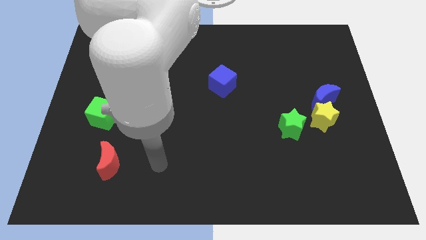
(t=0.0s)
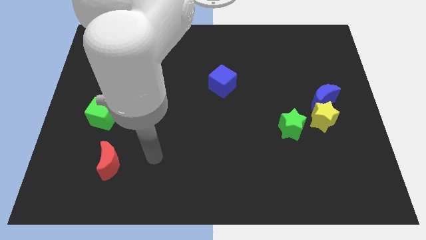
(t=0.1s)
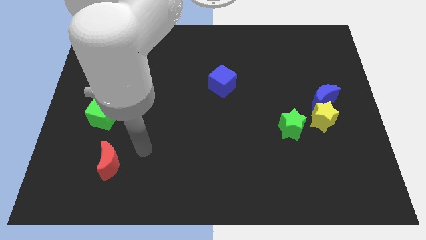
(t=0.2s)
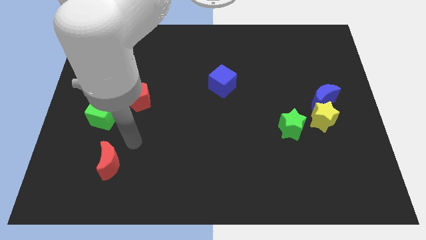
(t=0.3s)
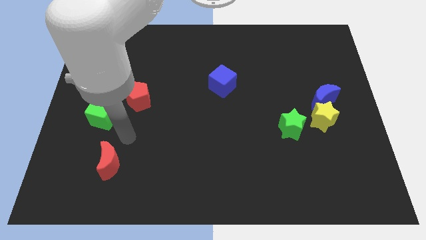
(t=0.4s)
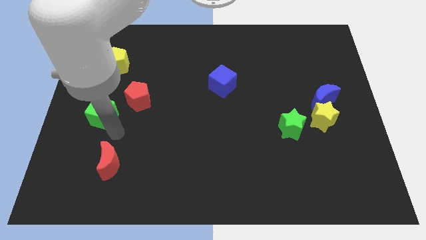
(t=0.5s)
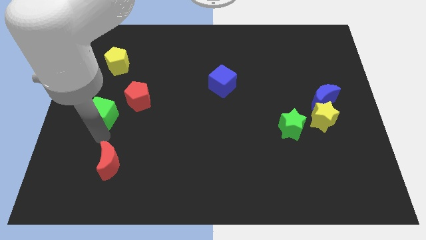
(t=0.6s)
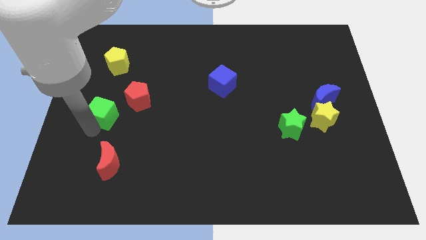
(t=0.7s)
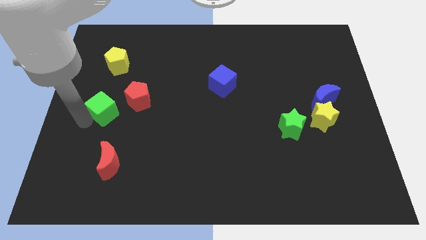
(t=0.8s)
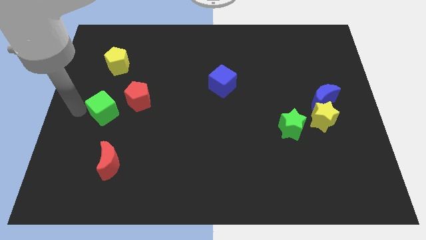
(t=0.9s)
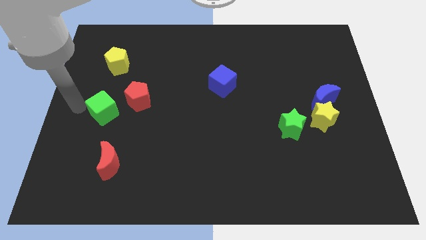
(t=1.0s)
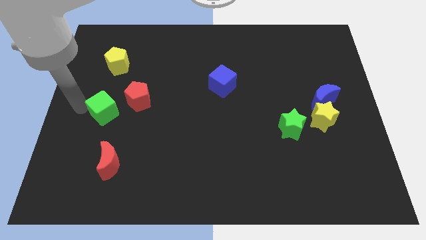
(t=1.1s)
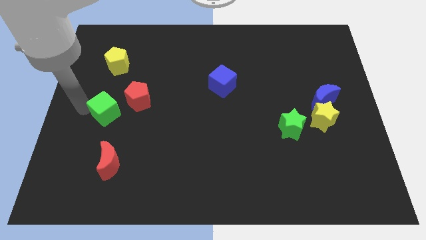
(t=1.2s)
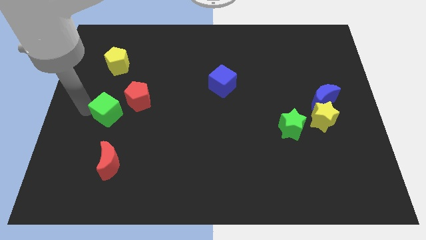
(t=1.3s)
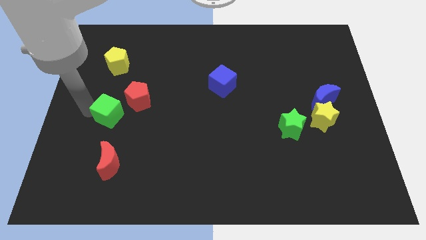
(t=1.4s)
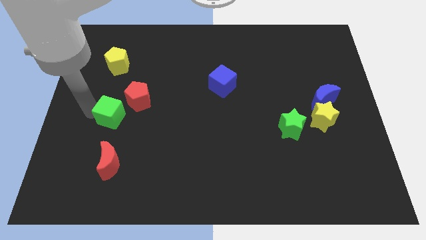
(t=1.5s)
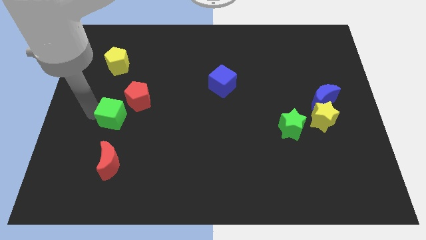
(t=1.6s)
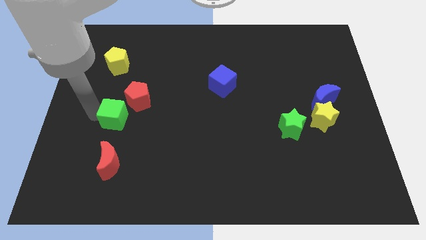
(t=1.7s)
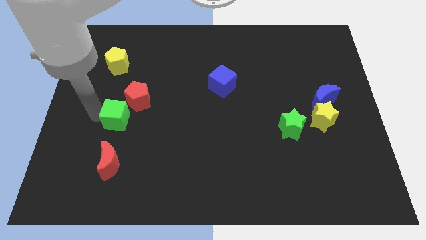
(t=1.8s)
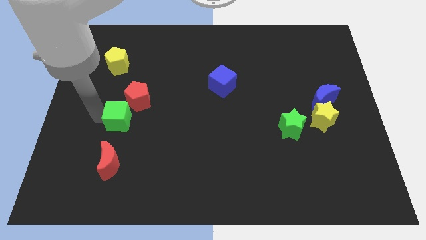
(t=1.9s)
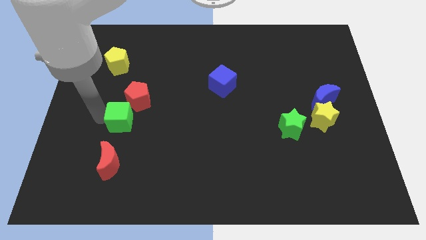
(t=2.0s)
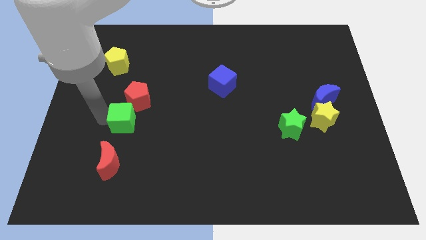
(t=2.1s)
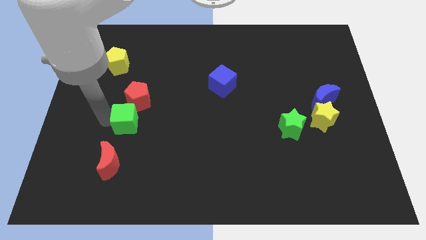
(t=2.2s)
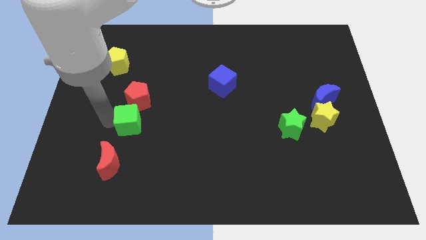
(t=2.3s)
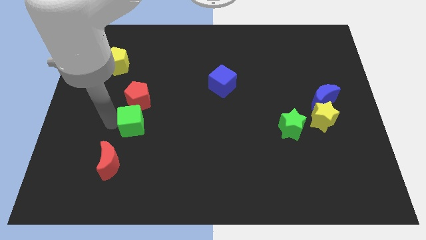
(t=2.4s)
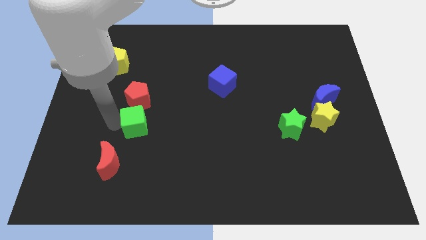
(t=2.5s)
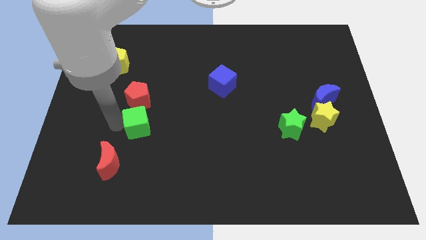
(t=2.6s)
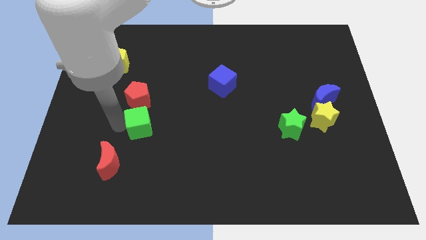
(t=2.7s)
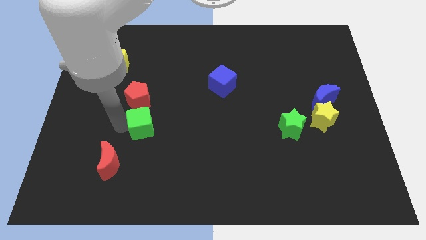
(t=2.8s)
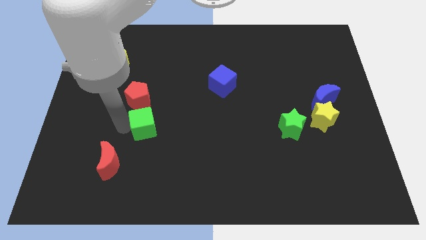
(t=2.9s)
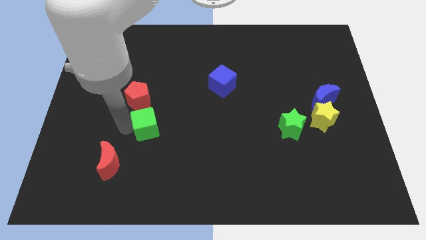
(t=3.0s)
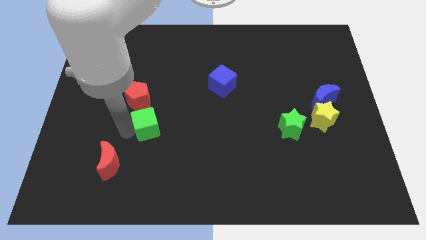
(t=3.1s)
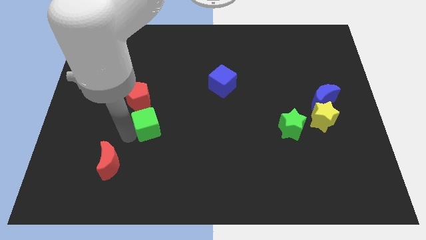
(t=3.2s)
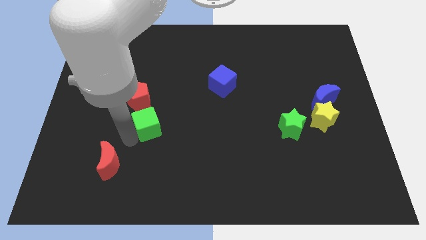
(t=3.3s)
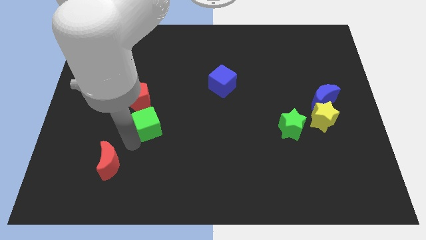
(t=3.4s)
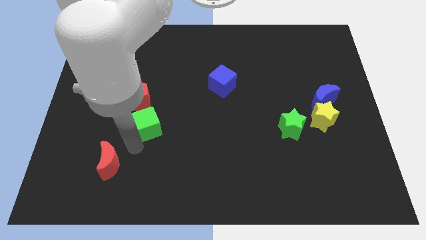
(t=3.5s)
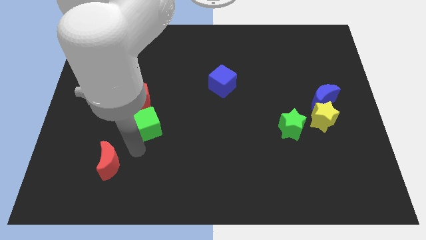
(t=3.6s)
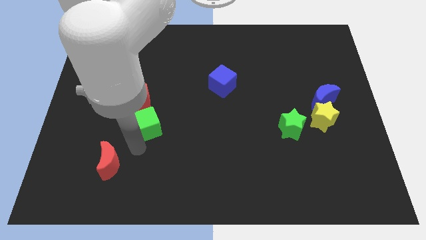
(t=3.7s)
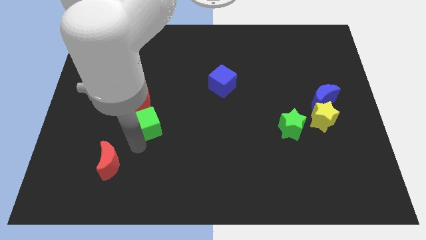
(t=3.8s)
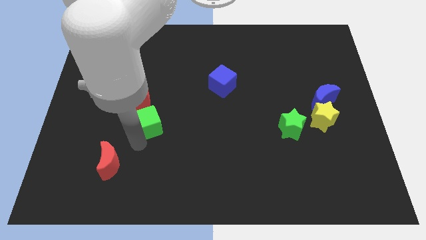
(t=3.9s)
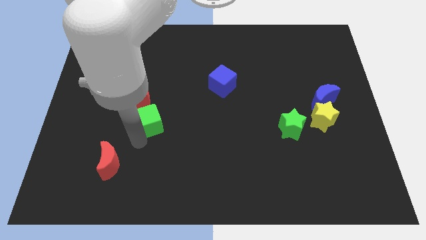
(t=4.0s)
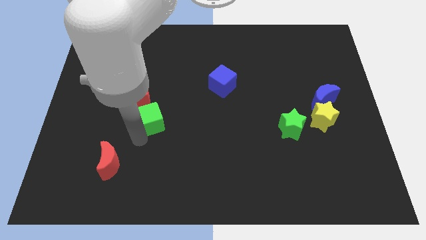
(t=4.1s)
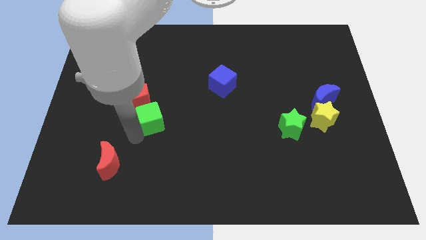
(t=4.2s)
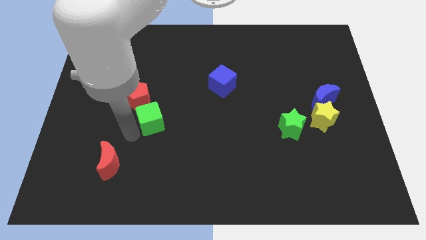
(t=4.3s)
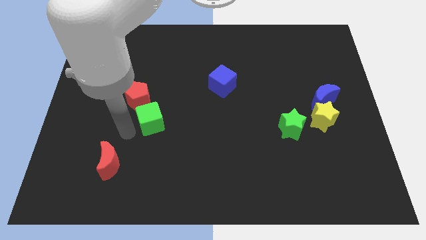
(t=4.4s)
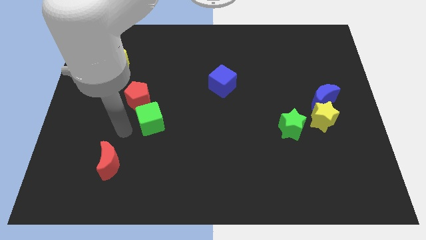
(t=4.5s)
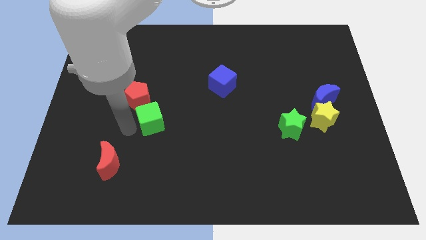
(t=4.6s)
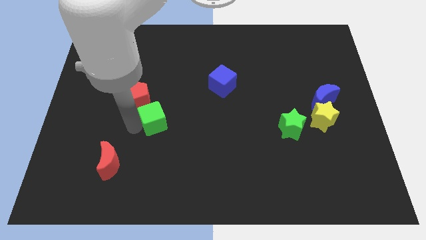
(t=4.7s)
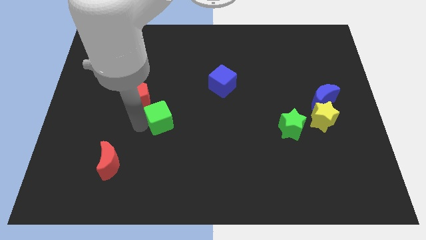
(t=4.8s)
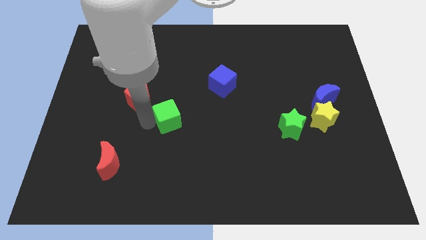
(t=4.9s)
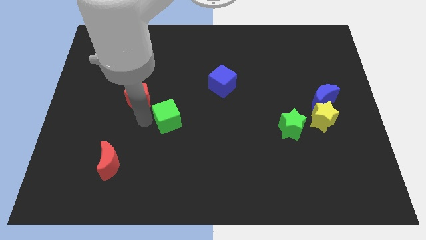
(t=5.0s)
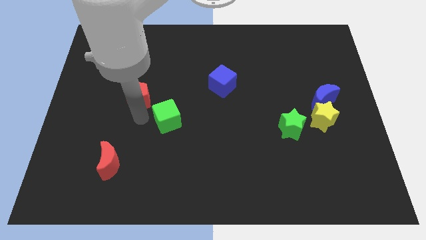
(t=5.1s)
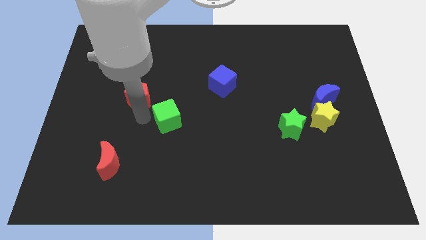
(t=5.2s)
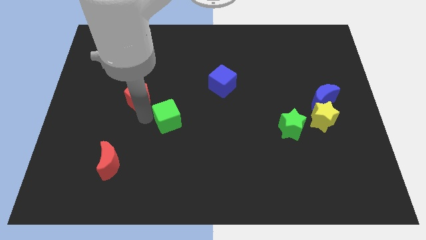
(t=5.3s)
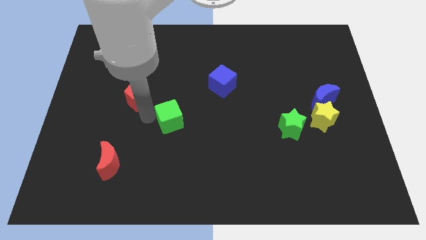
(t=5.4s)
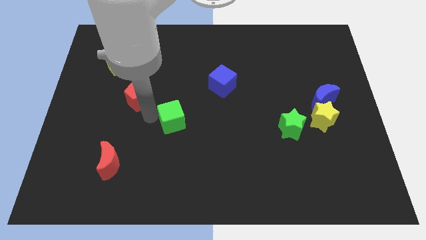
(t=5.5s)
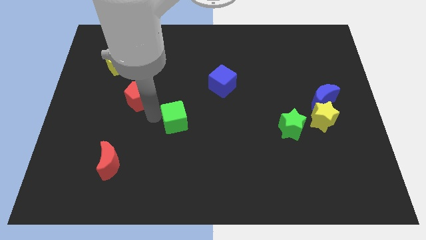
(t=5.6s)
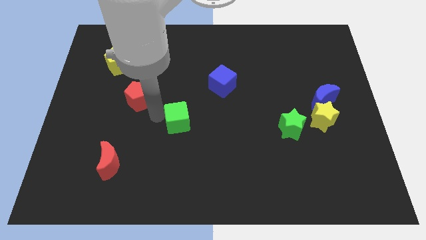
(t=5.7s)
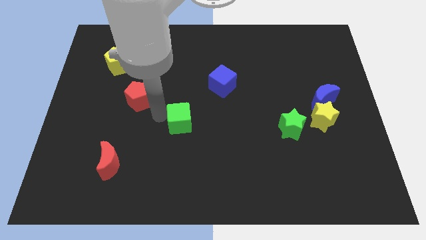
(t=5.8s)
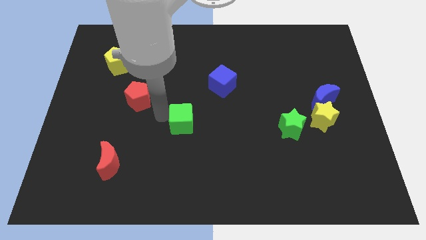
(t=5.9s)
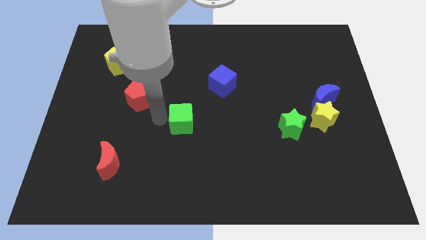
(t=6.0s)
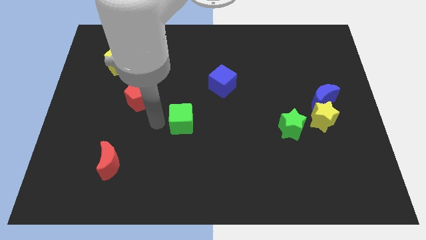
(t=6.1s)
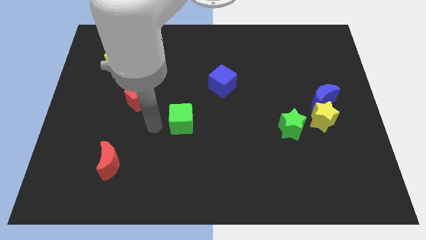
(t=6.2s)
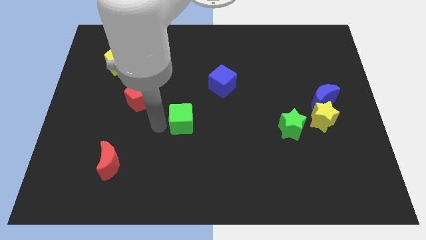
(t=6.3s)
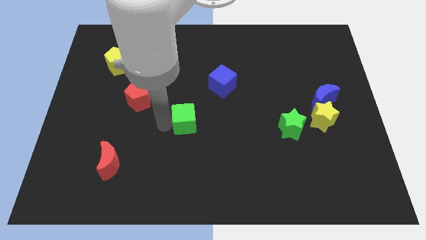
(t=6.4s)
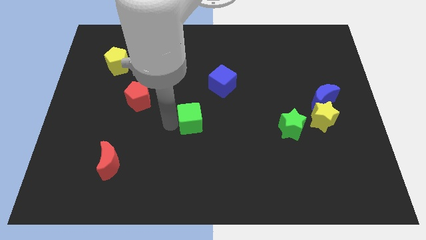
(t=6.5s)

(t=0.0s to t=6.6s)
slide the green cube right

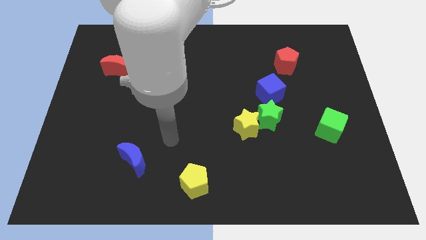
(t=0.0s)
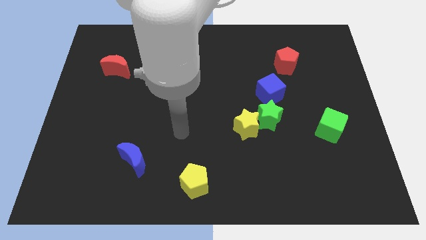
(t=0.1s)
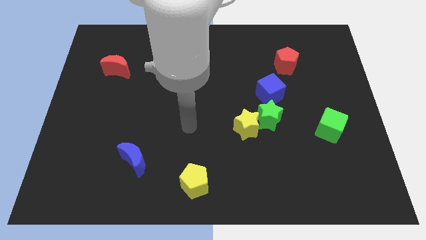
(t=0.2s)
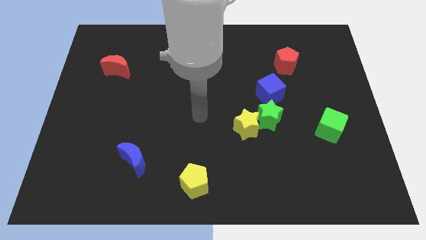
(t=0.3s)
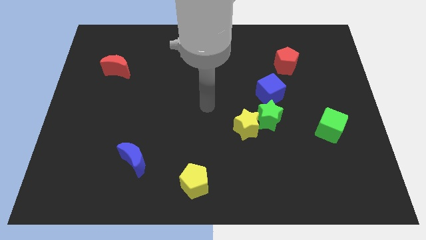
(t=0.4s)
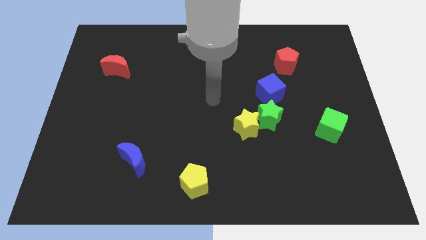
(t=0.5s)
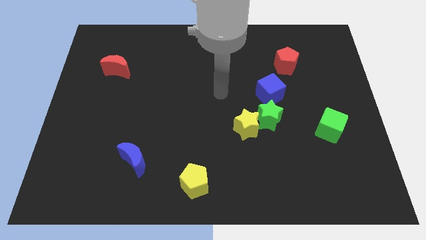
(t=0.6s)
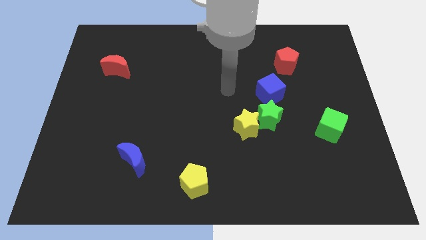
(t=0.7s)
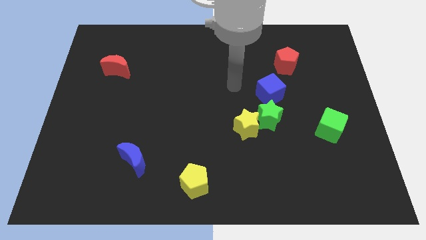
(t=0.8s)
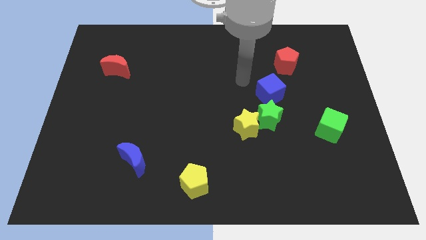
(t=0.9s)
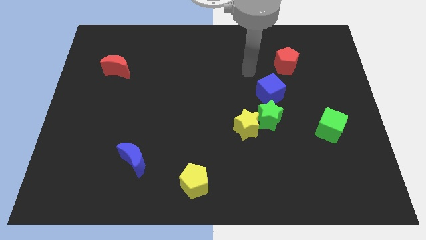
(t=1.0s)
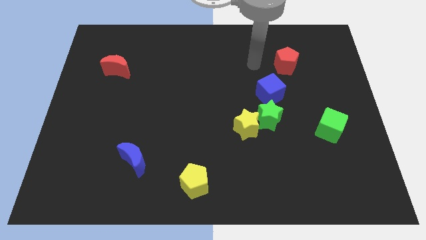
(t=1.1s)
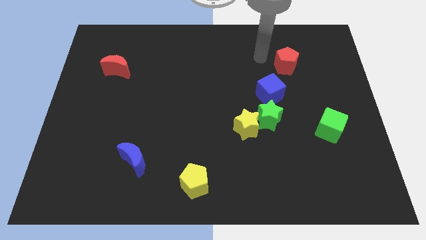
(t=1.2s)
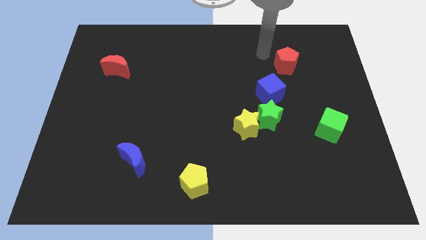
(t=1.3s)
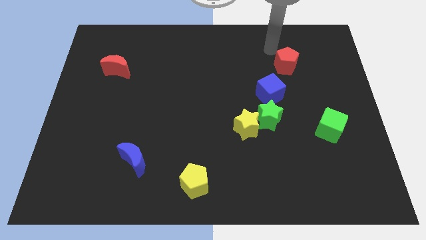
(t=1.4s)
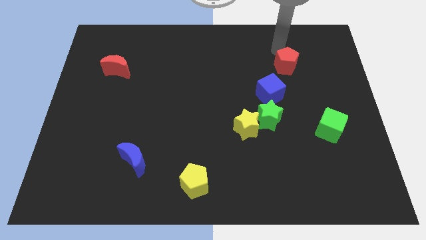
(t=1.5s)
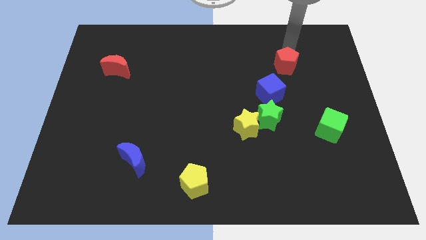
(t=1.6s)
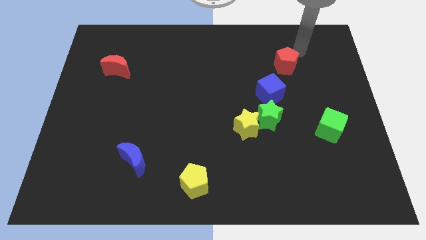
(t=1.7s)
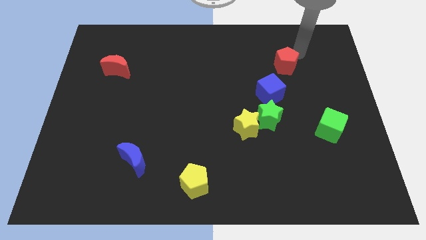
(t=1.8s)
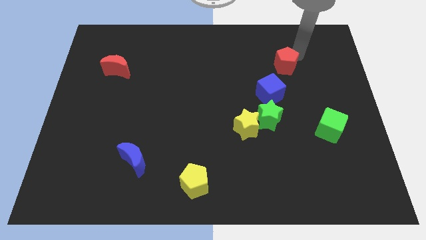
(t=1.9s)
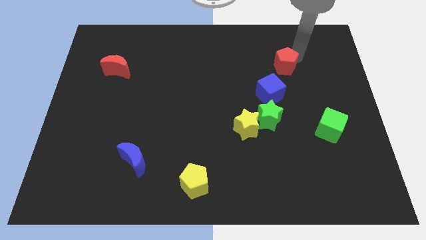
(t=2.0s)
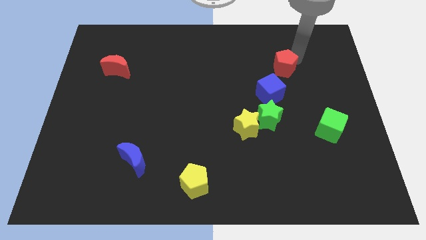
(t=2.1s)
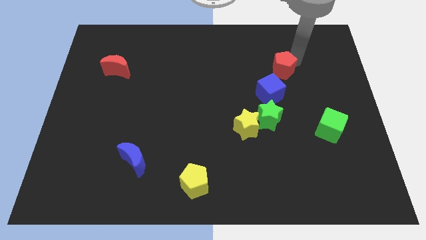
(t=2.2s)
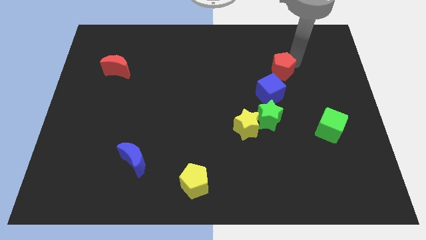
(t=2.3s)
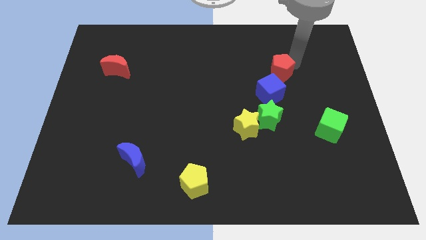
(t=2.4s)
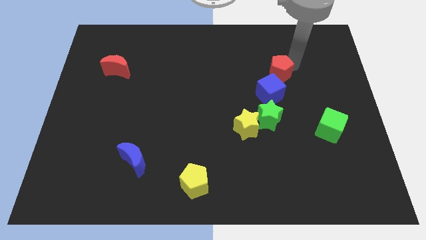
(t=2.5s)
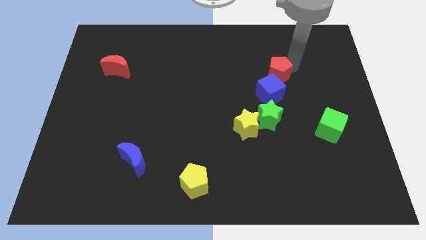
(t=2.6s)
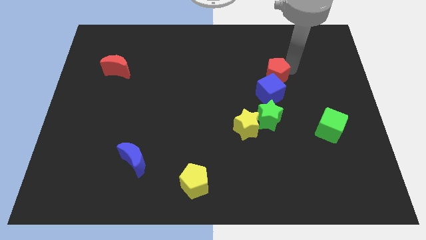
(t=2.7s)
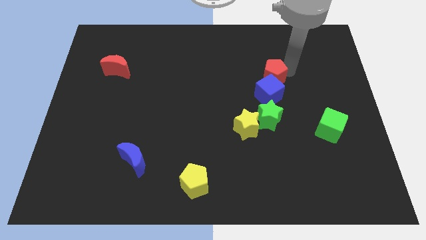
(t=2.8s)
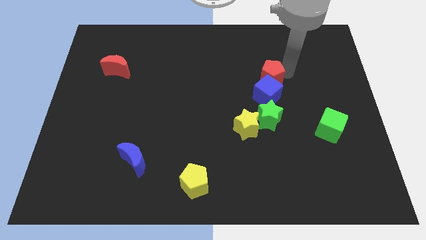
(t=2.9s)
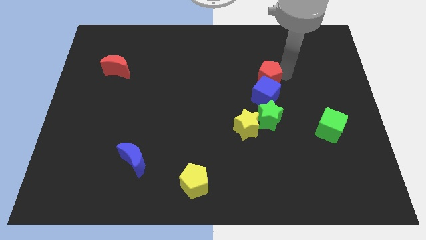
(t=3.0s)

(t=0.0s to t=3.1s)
push the red pentagon slightly downwards and to the left diagonally
